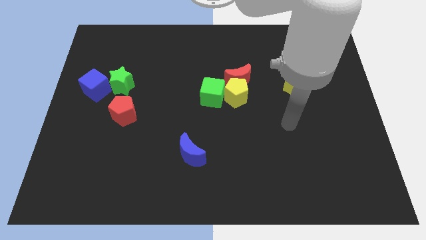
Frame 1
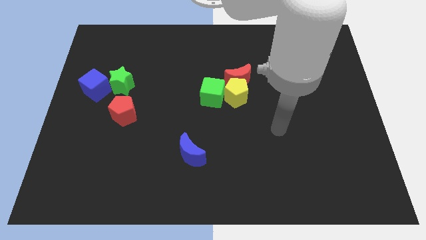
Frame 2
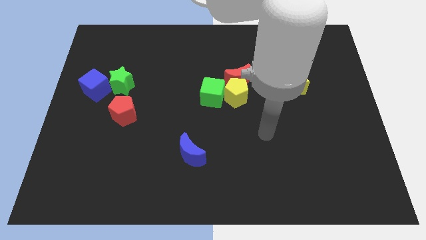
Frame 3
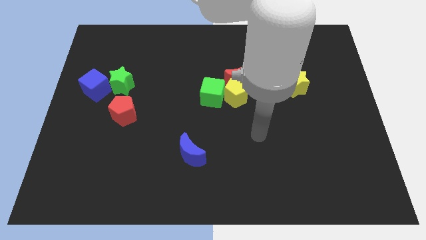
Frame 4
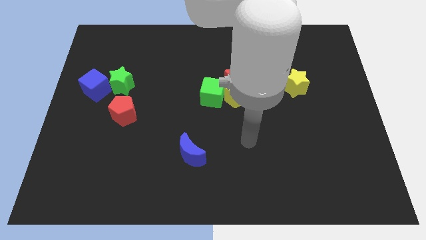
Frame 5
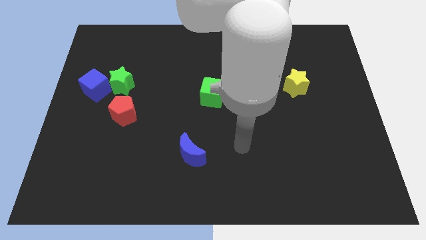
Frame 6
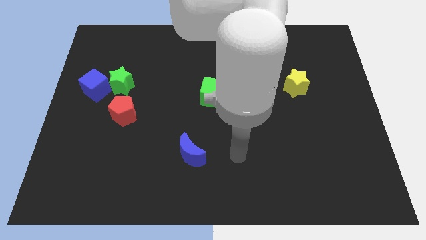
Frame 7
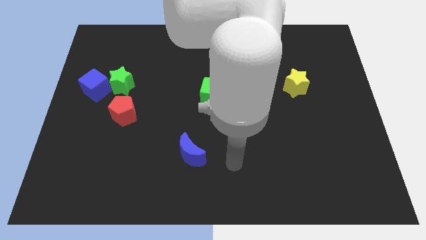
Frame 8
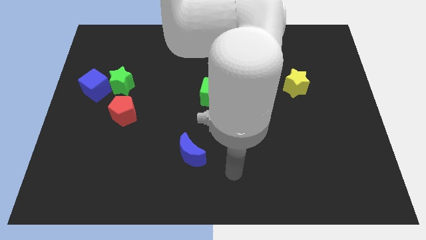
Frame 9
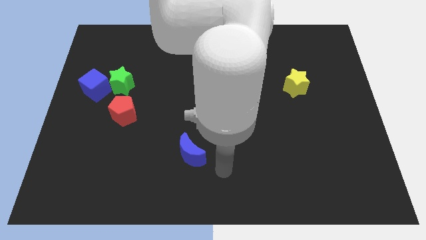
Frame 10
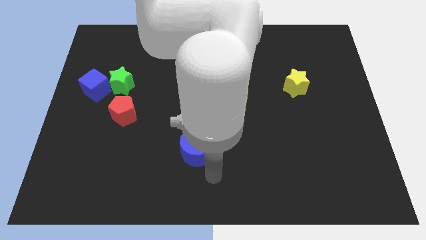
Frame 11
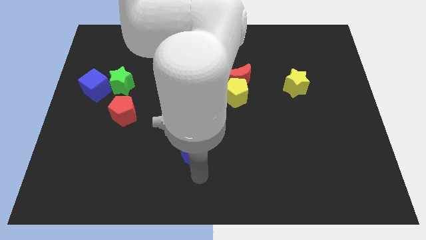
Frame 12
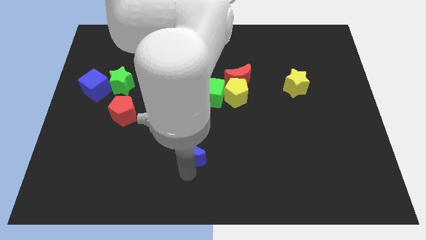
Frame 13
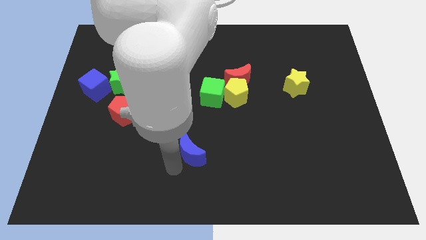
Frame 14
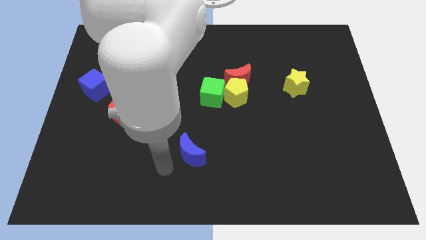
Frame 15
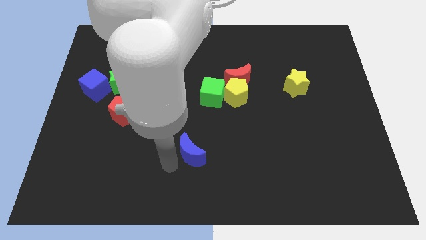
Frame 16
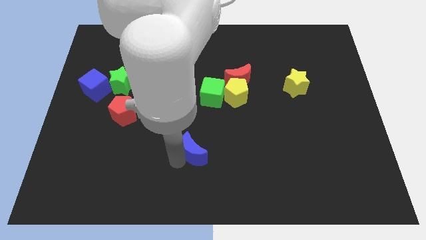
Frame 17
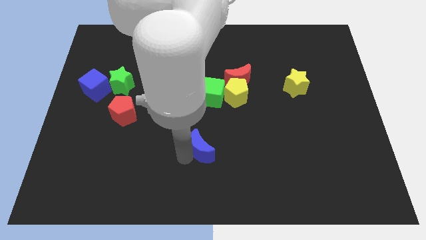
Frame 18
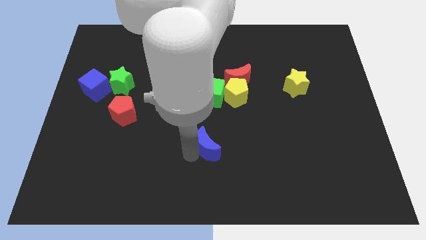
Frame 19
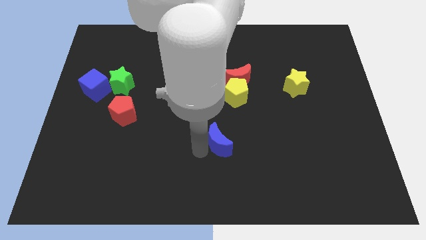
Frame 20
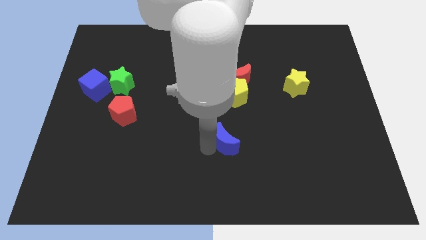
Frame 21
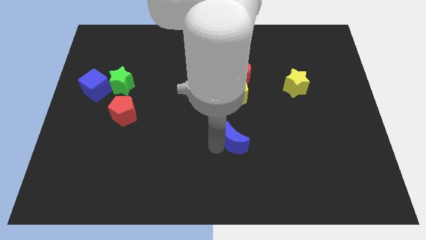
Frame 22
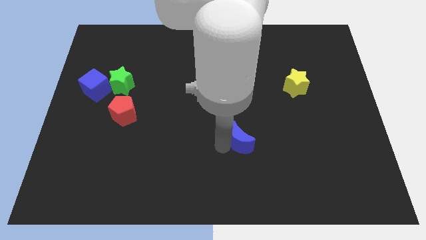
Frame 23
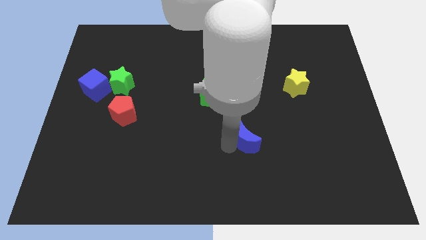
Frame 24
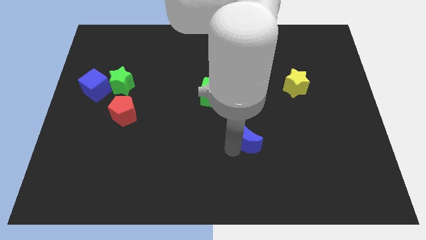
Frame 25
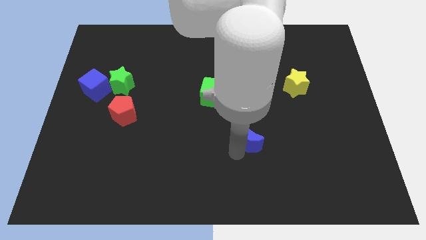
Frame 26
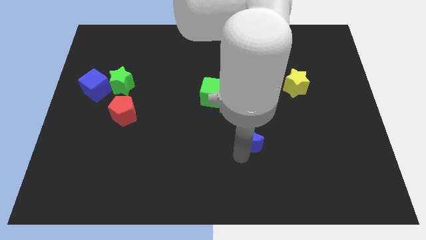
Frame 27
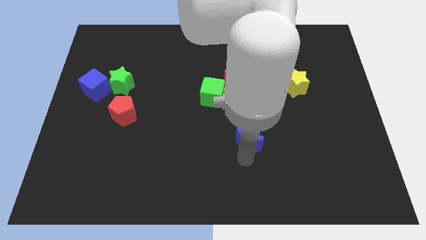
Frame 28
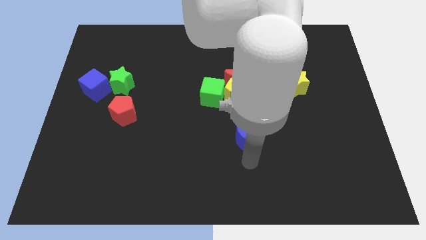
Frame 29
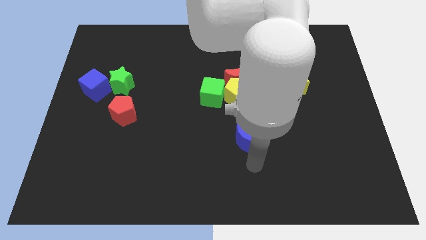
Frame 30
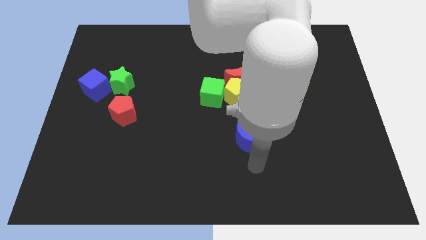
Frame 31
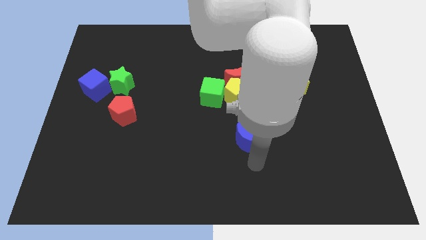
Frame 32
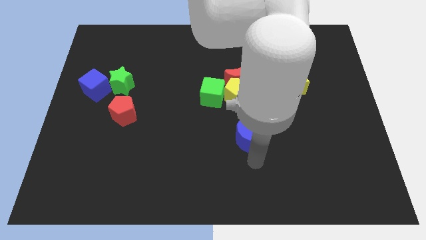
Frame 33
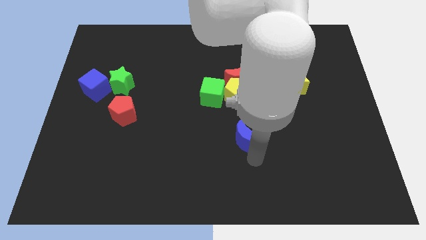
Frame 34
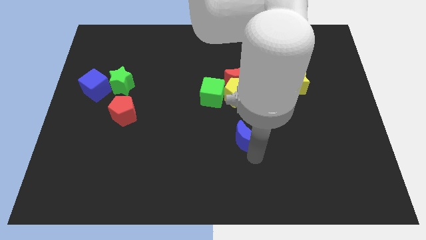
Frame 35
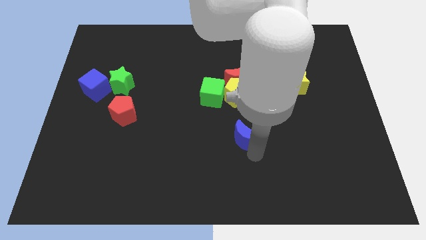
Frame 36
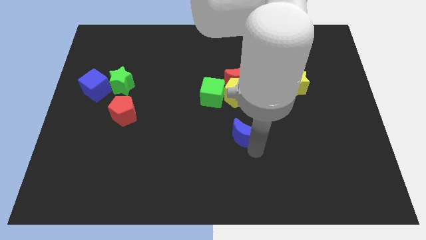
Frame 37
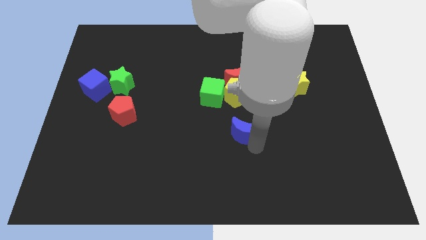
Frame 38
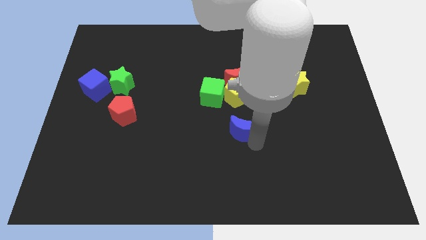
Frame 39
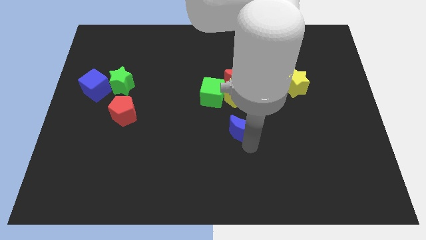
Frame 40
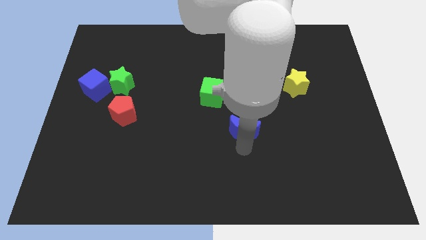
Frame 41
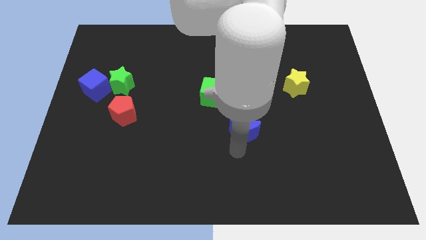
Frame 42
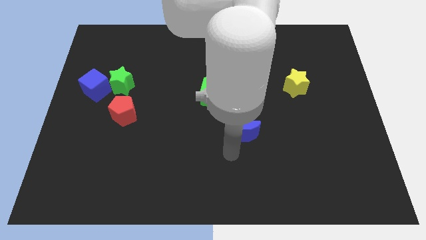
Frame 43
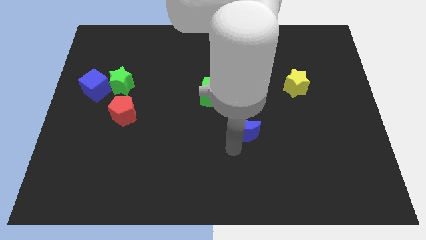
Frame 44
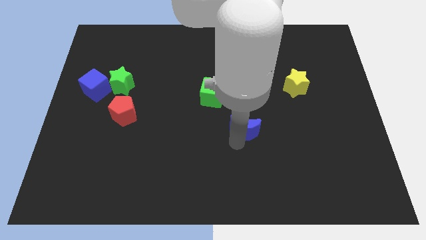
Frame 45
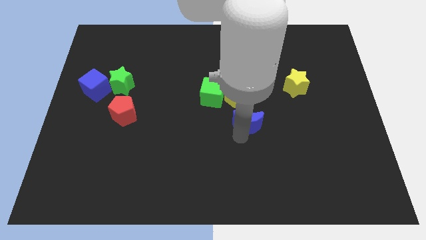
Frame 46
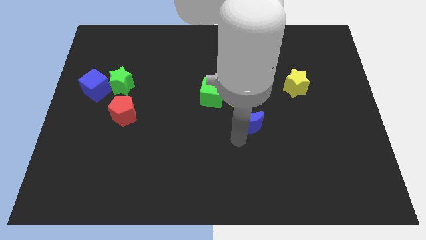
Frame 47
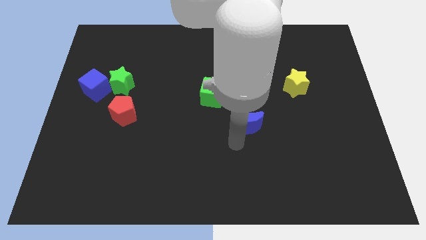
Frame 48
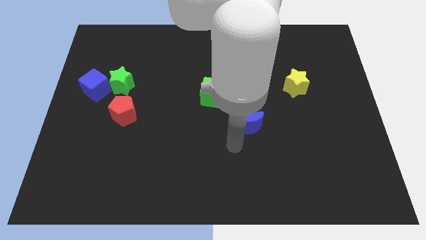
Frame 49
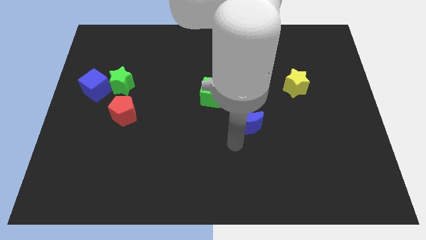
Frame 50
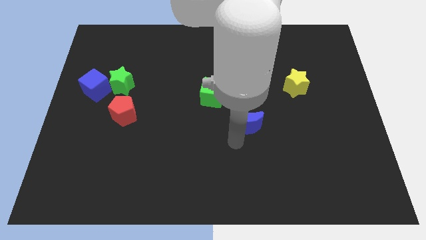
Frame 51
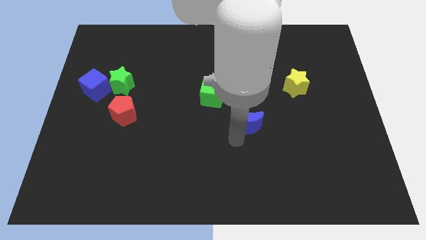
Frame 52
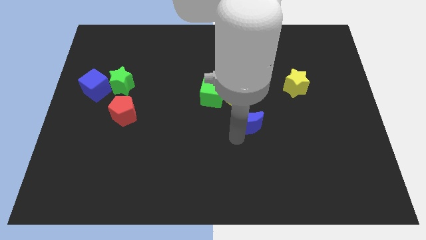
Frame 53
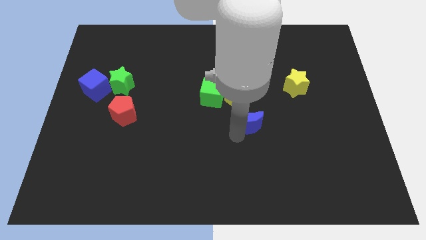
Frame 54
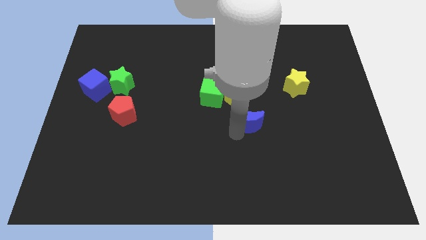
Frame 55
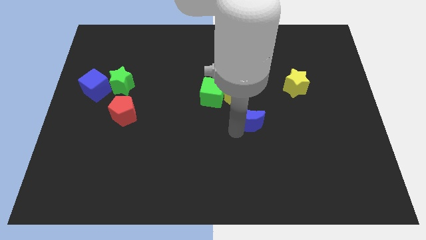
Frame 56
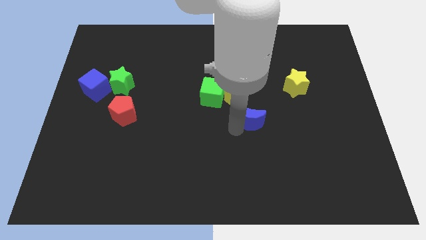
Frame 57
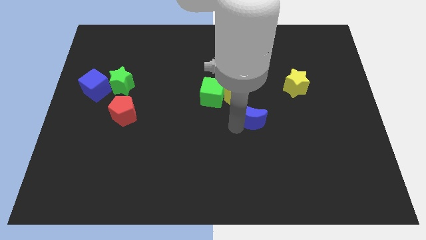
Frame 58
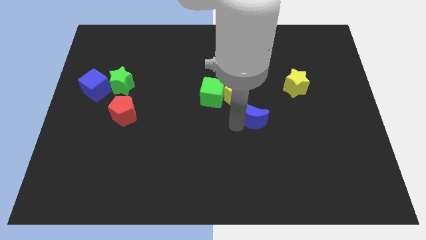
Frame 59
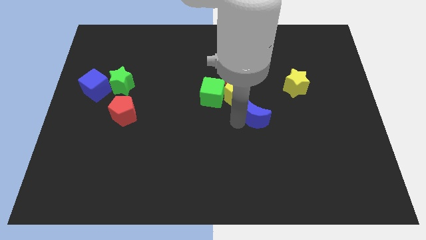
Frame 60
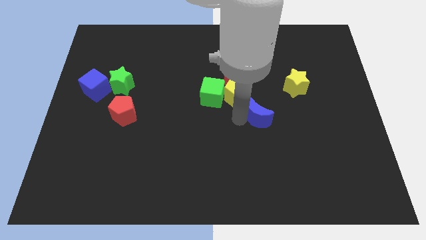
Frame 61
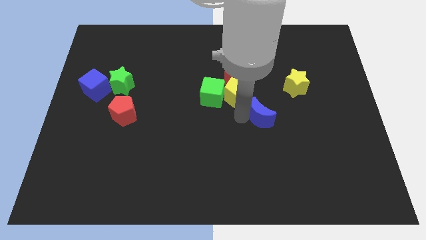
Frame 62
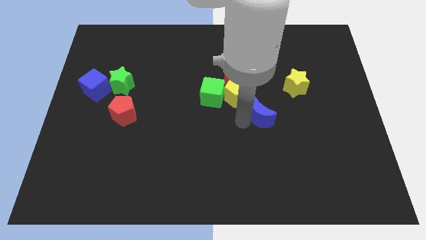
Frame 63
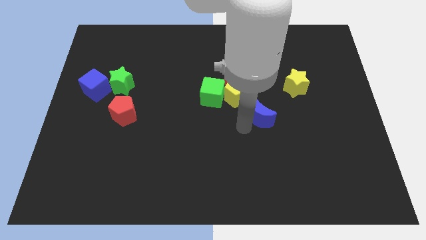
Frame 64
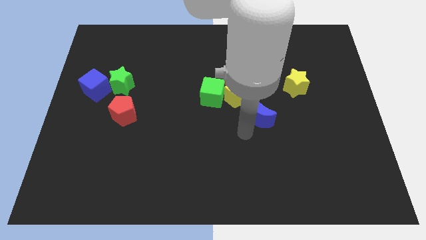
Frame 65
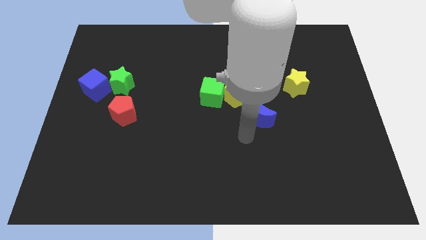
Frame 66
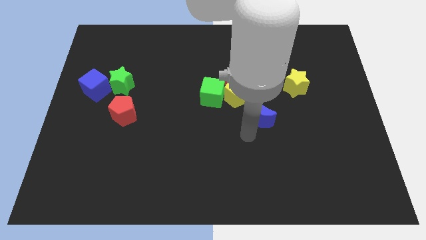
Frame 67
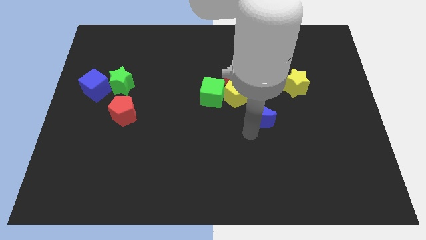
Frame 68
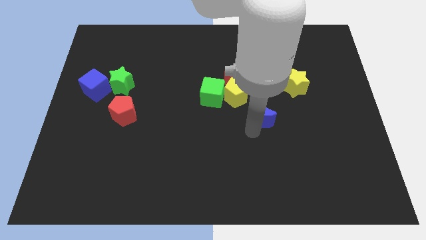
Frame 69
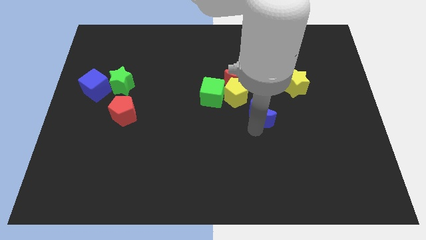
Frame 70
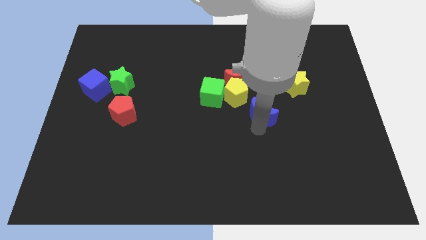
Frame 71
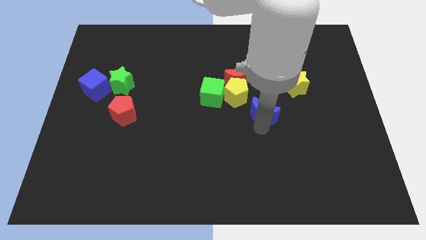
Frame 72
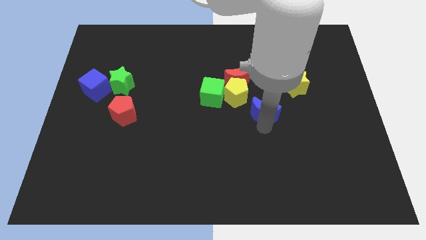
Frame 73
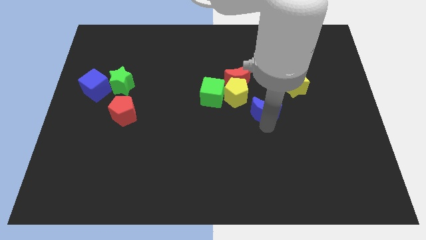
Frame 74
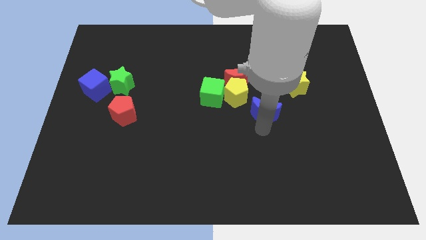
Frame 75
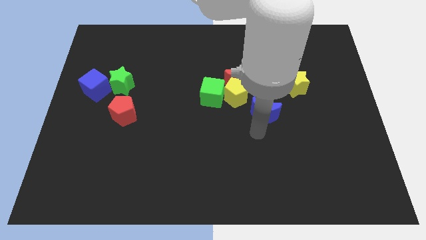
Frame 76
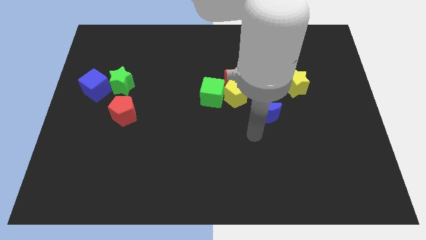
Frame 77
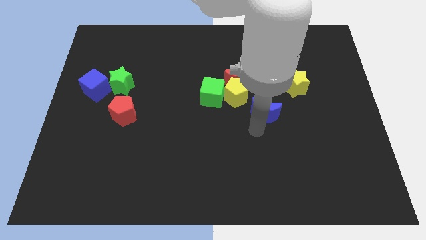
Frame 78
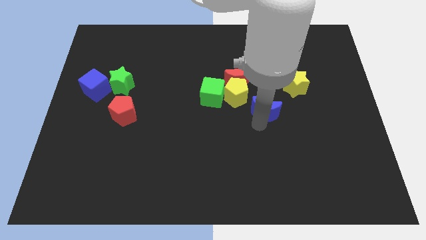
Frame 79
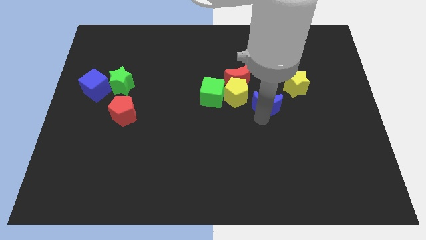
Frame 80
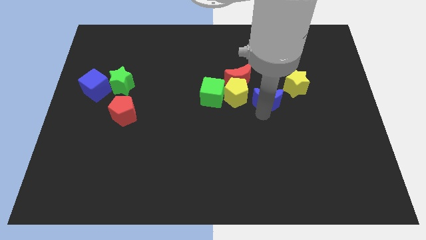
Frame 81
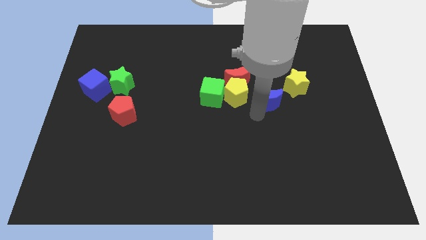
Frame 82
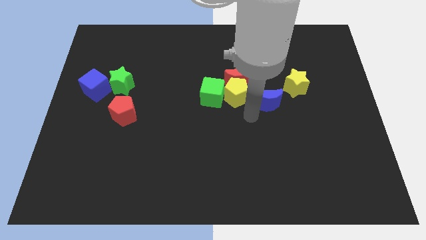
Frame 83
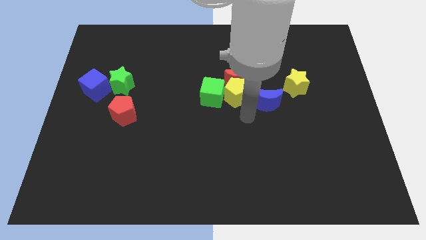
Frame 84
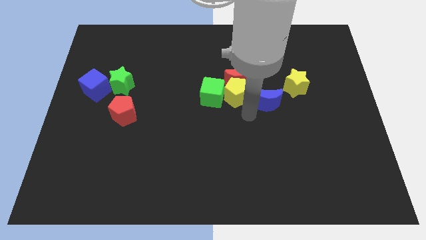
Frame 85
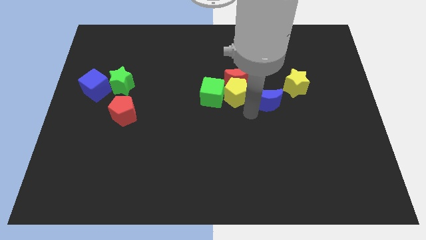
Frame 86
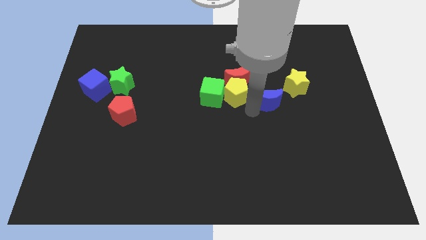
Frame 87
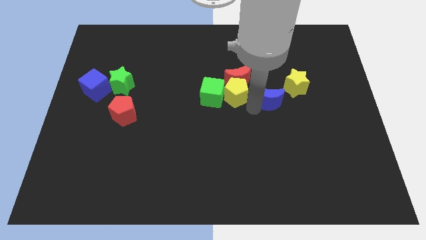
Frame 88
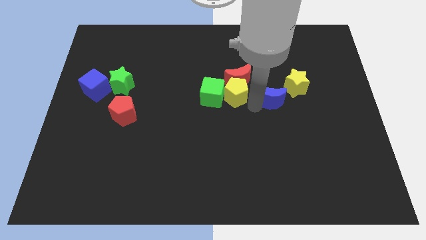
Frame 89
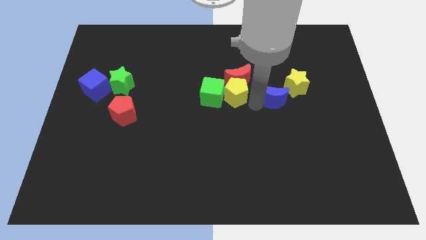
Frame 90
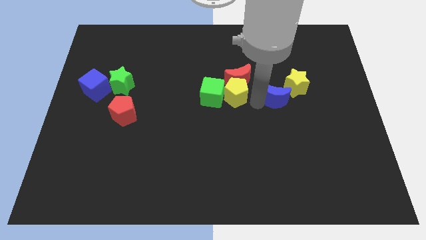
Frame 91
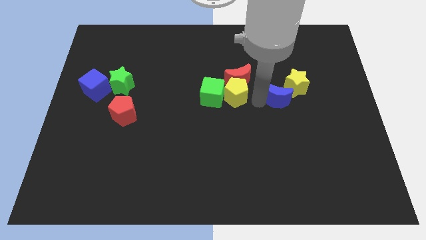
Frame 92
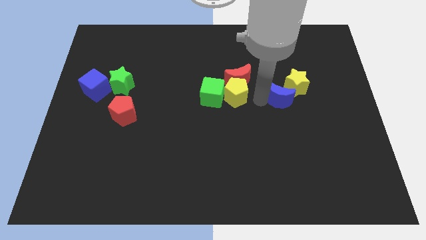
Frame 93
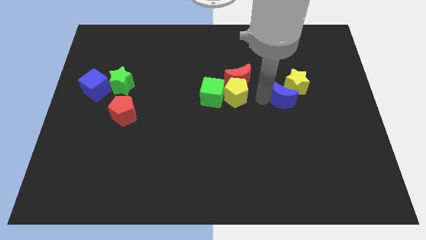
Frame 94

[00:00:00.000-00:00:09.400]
push the blue moon towards the yellow star
